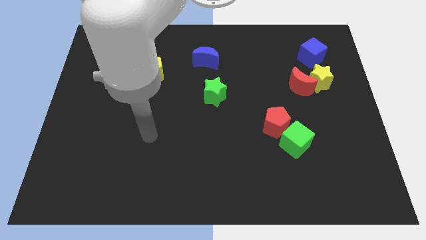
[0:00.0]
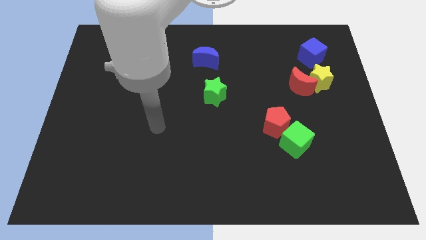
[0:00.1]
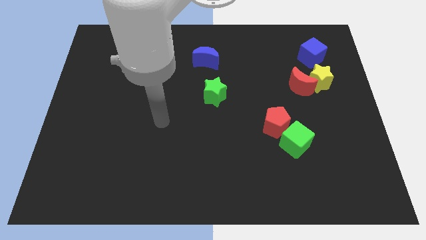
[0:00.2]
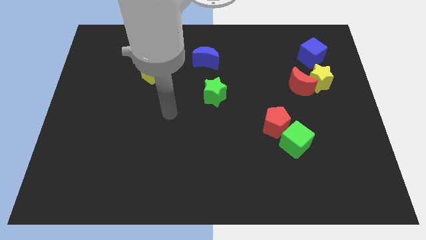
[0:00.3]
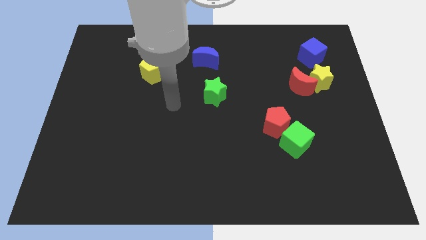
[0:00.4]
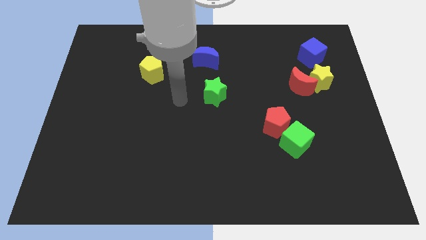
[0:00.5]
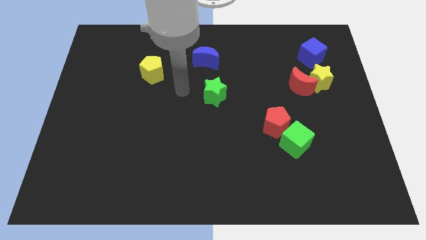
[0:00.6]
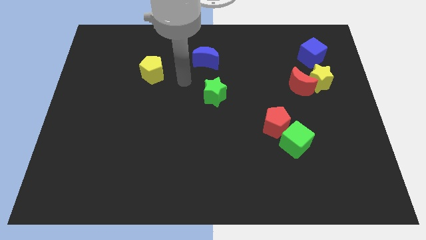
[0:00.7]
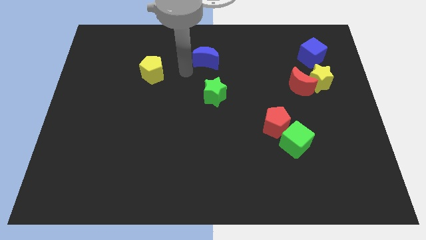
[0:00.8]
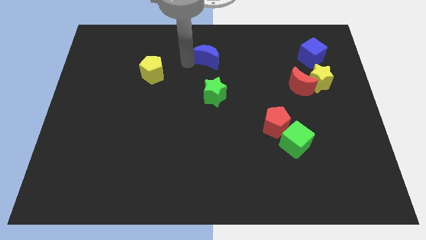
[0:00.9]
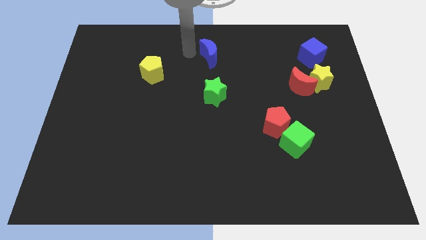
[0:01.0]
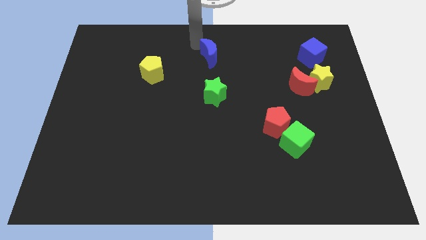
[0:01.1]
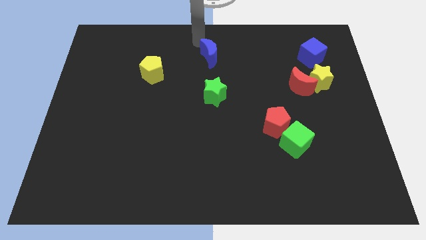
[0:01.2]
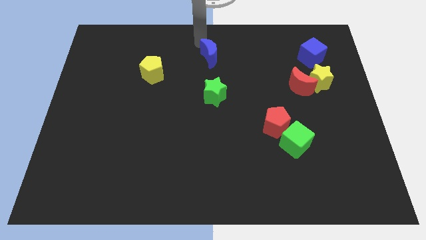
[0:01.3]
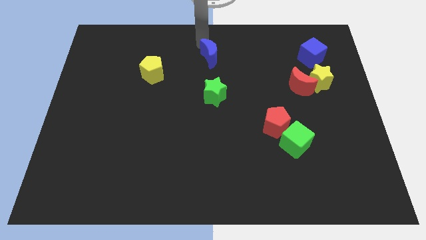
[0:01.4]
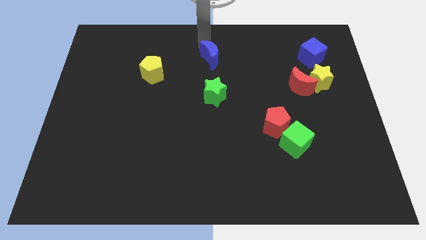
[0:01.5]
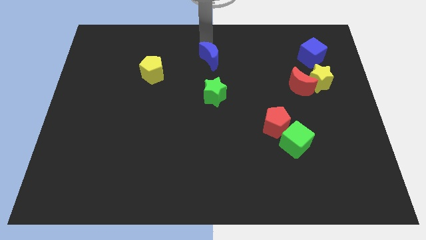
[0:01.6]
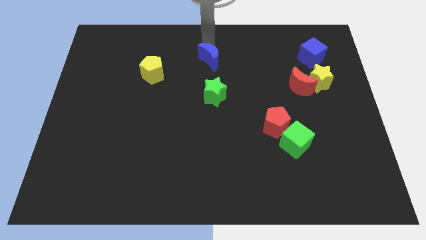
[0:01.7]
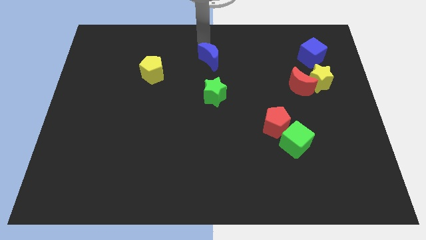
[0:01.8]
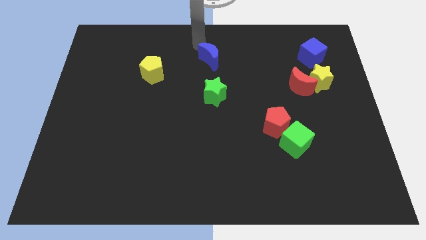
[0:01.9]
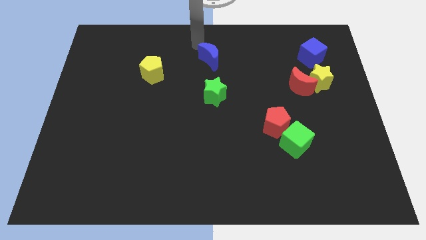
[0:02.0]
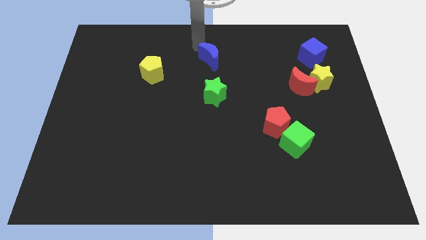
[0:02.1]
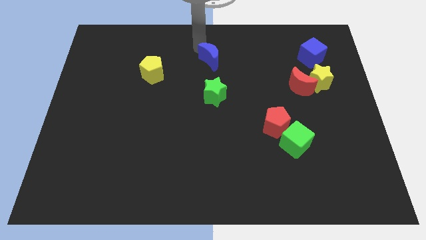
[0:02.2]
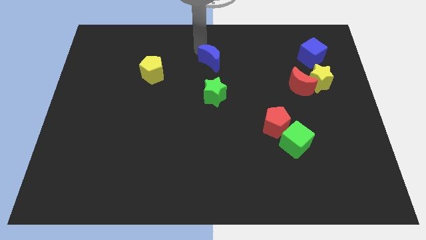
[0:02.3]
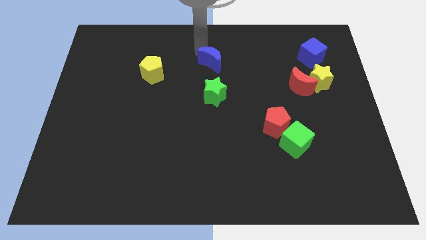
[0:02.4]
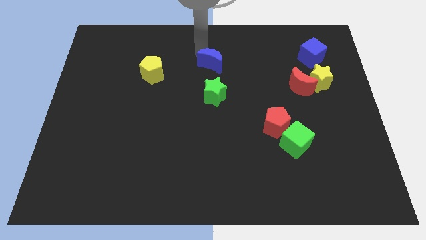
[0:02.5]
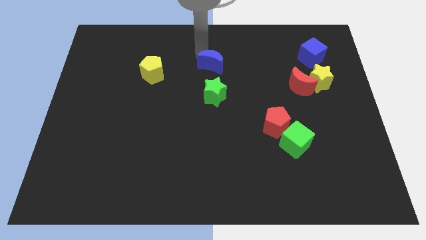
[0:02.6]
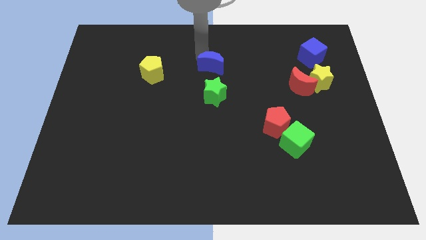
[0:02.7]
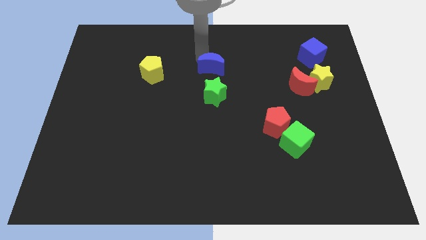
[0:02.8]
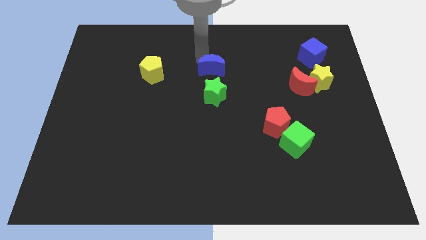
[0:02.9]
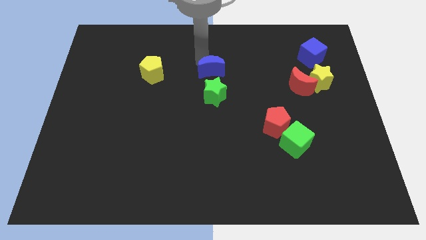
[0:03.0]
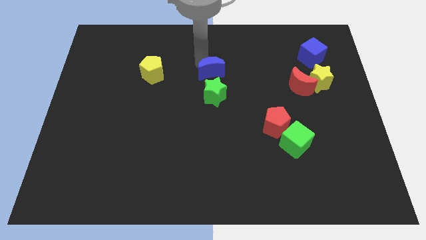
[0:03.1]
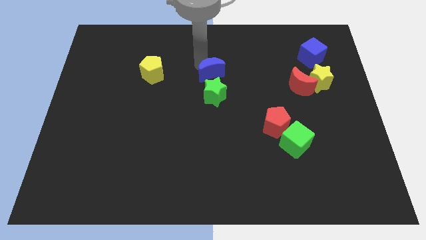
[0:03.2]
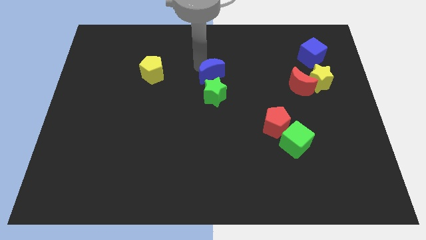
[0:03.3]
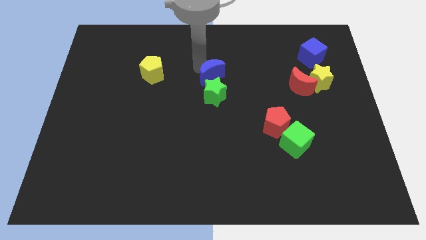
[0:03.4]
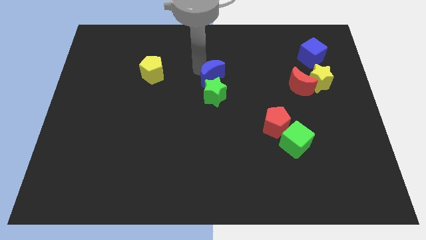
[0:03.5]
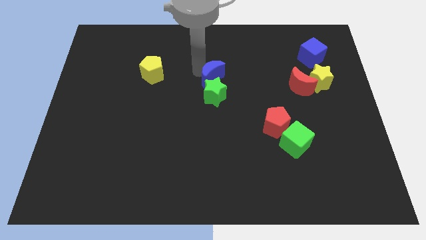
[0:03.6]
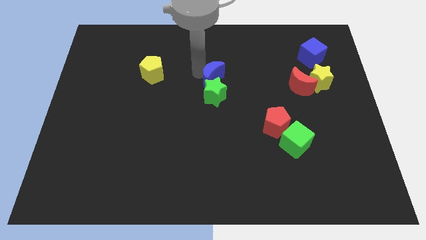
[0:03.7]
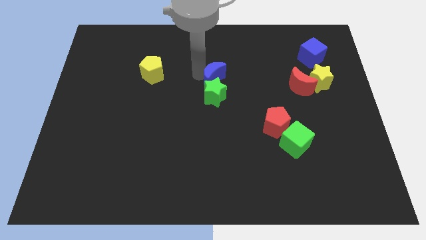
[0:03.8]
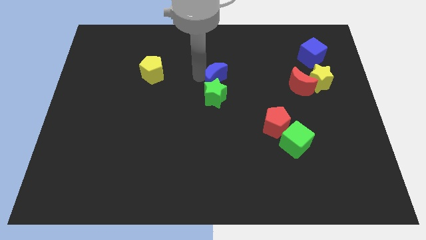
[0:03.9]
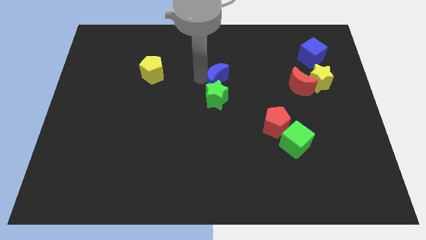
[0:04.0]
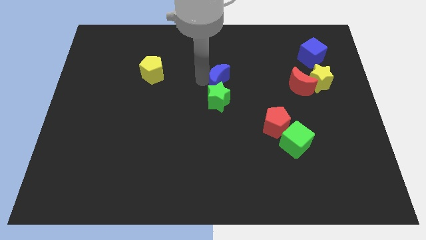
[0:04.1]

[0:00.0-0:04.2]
slightly move the blue moon down and right

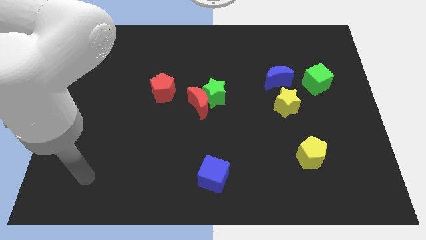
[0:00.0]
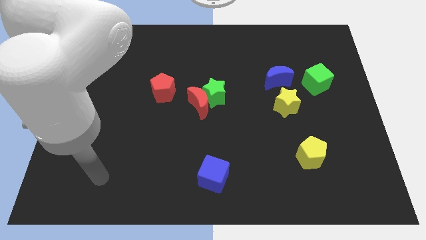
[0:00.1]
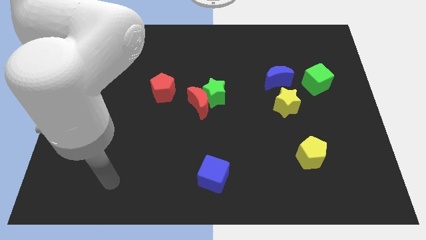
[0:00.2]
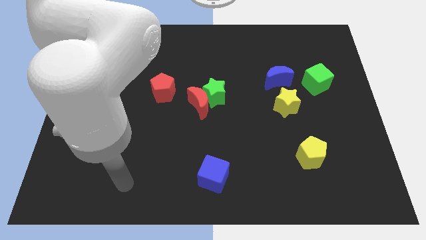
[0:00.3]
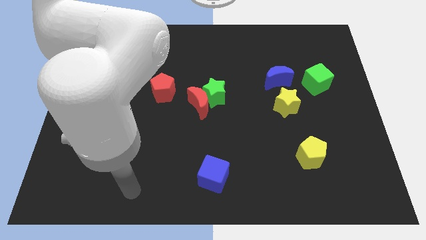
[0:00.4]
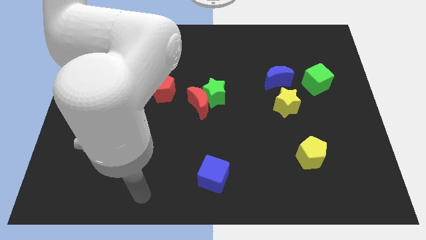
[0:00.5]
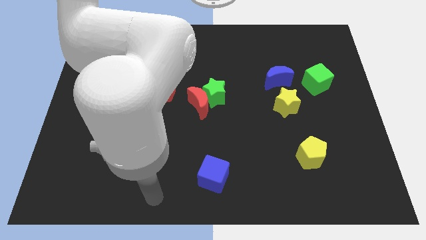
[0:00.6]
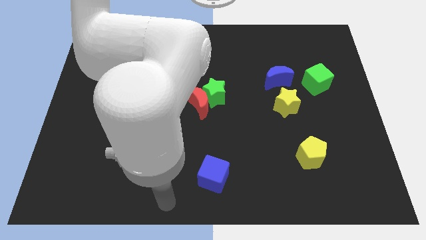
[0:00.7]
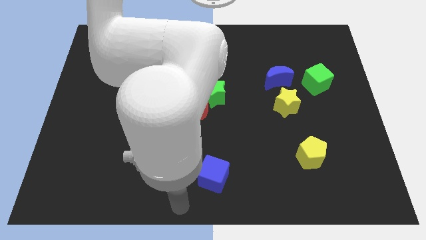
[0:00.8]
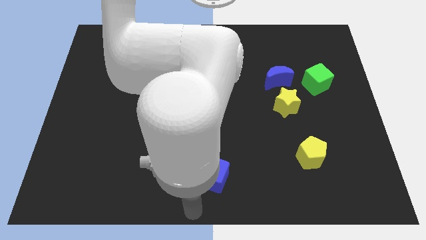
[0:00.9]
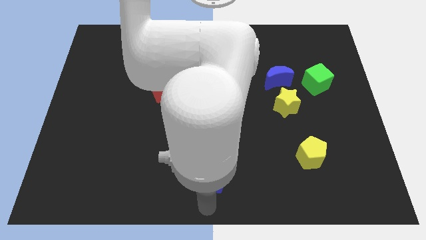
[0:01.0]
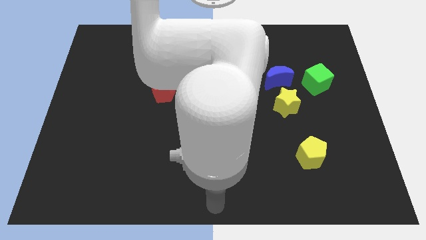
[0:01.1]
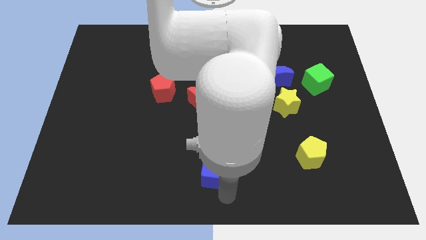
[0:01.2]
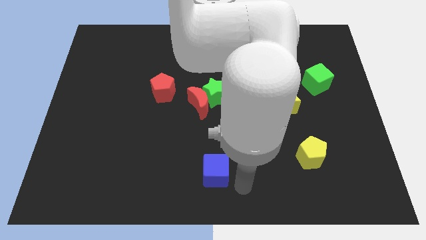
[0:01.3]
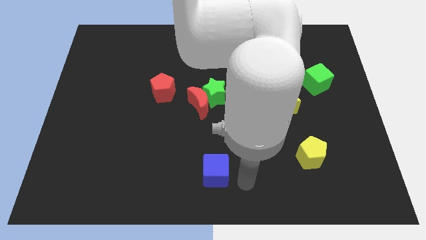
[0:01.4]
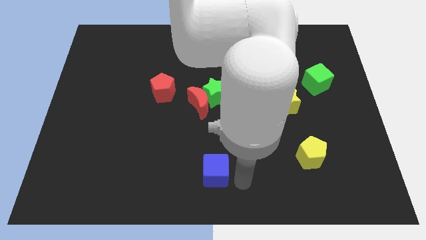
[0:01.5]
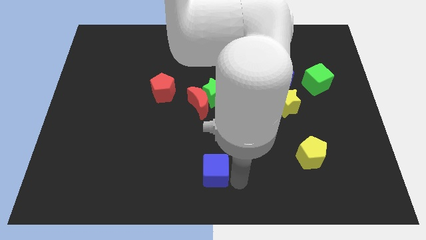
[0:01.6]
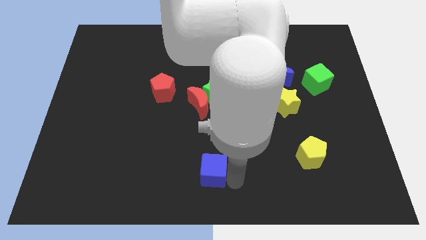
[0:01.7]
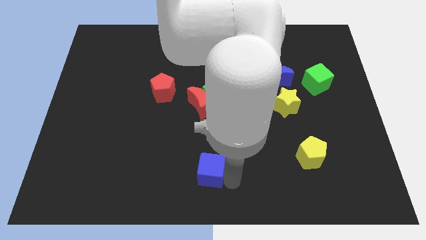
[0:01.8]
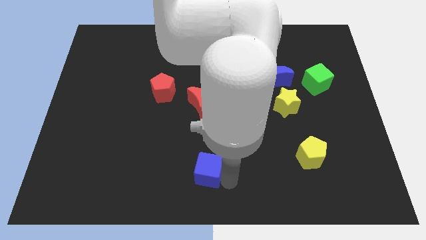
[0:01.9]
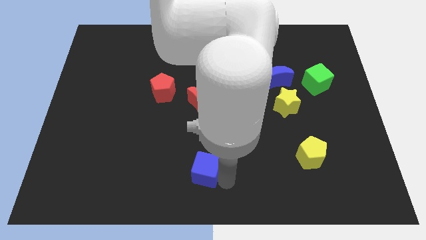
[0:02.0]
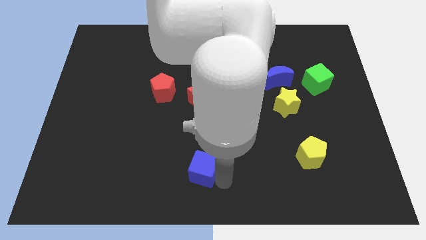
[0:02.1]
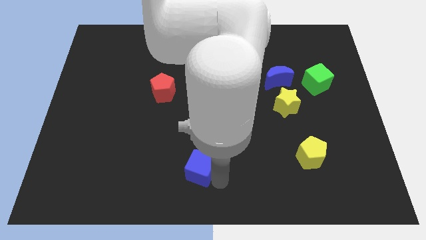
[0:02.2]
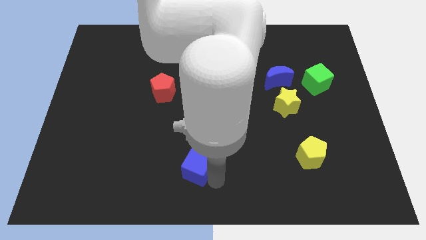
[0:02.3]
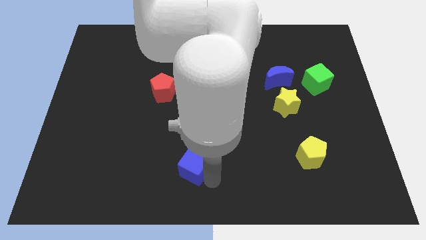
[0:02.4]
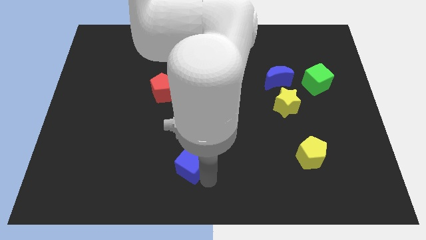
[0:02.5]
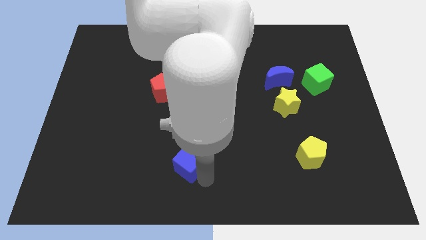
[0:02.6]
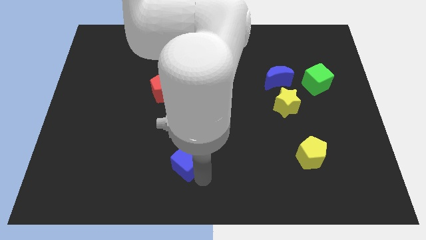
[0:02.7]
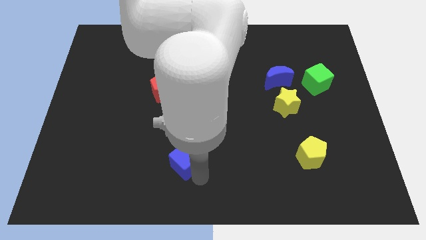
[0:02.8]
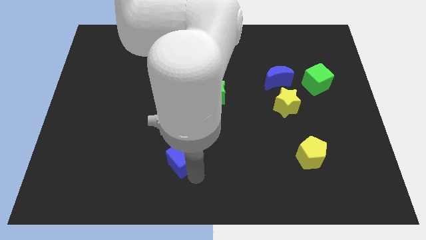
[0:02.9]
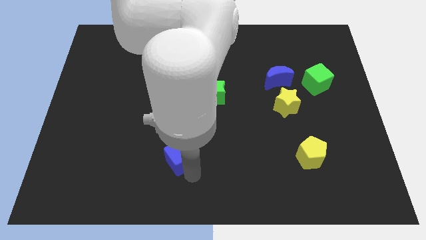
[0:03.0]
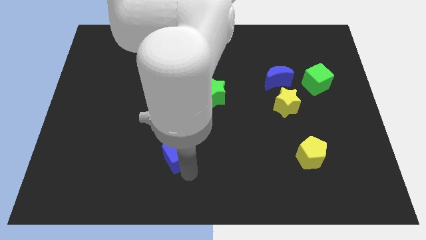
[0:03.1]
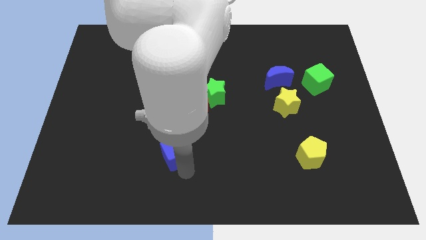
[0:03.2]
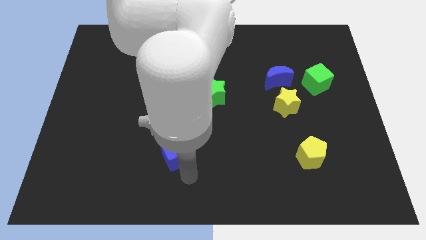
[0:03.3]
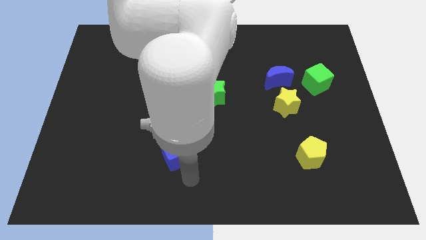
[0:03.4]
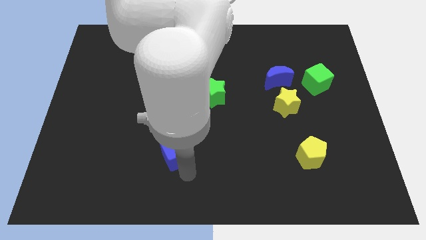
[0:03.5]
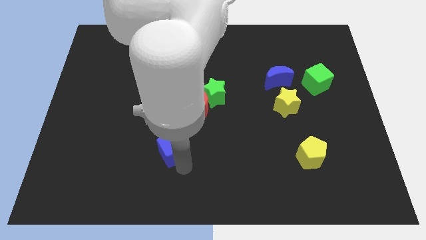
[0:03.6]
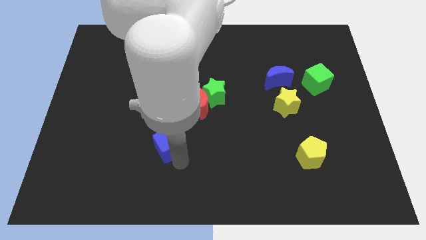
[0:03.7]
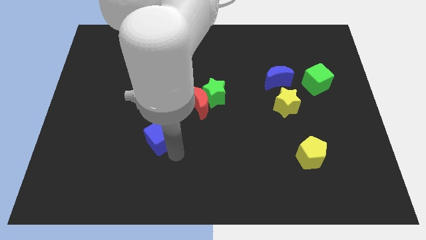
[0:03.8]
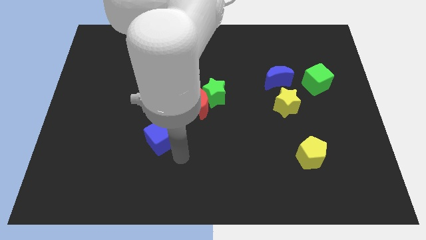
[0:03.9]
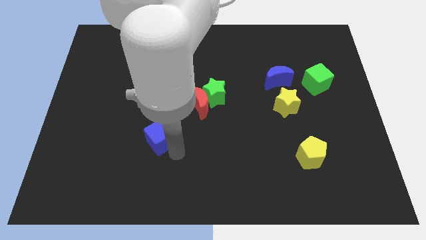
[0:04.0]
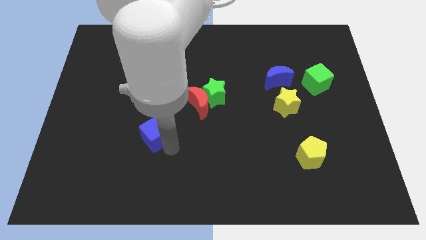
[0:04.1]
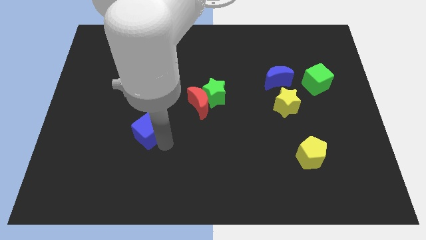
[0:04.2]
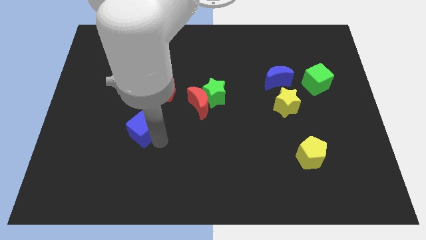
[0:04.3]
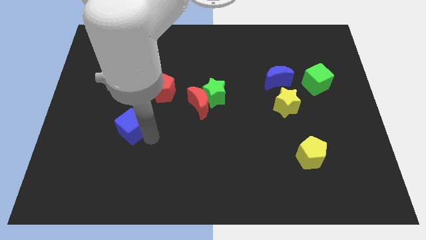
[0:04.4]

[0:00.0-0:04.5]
slide the blue cube upwards and left diagonally
